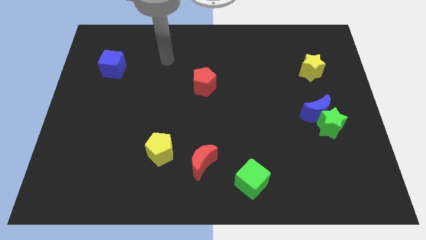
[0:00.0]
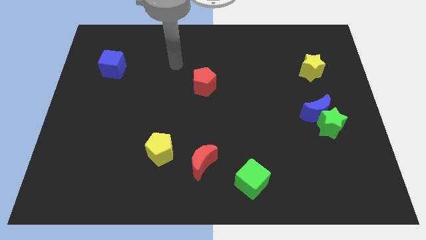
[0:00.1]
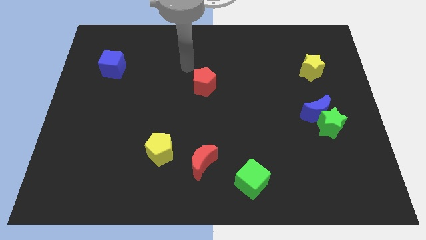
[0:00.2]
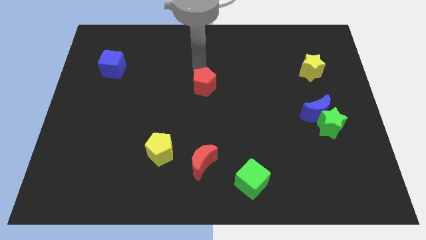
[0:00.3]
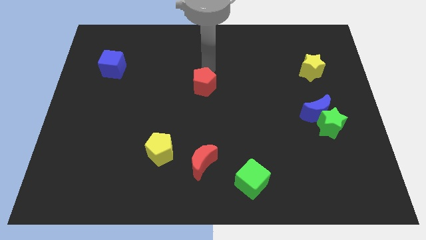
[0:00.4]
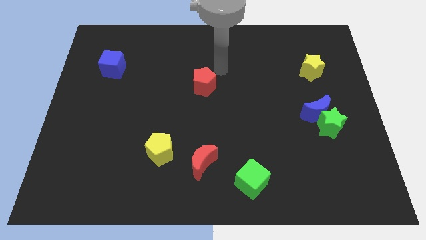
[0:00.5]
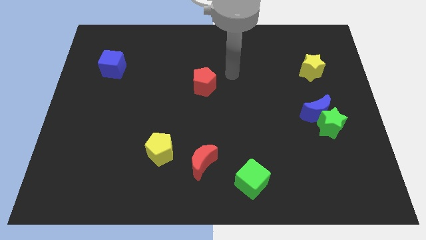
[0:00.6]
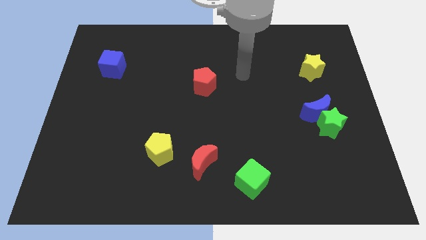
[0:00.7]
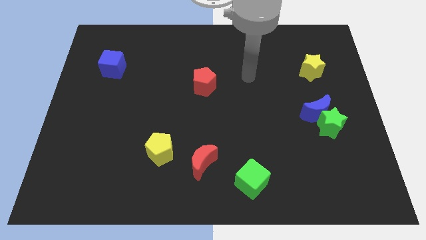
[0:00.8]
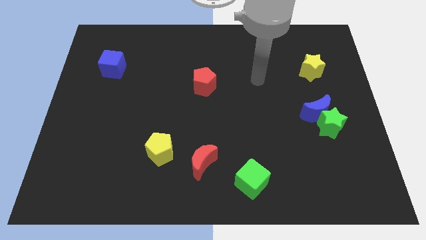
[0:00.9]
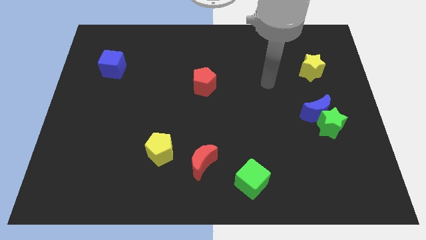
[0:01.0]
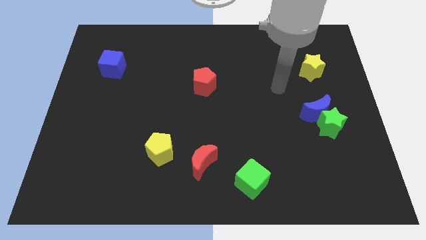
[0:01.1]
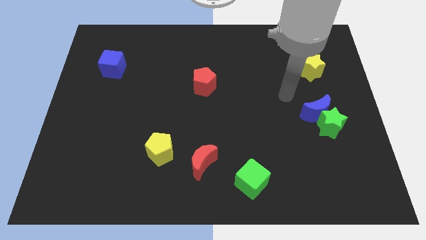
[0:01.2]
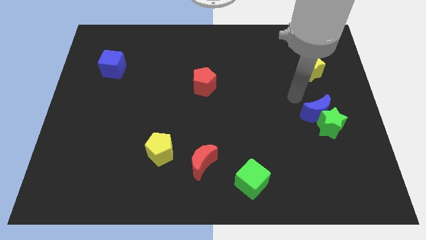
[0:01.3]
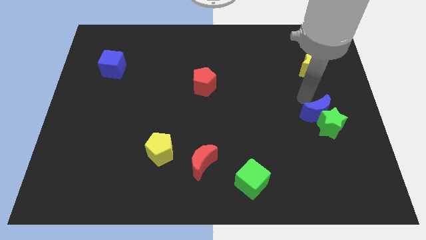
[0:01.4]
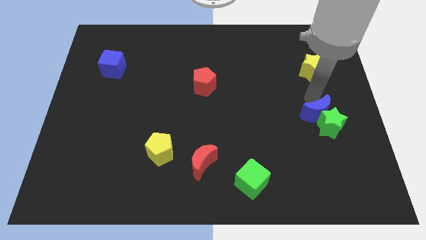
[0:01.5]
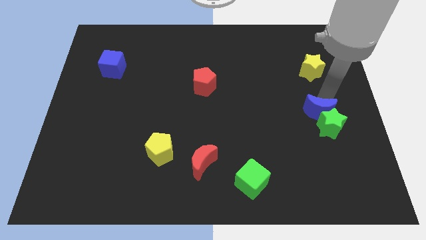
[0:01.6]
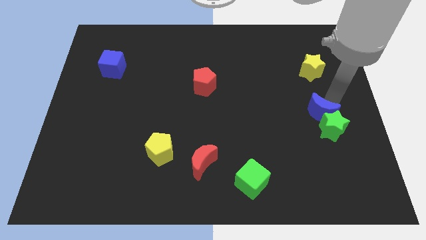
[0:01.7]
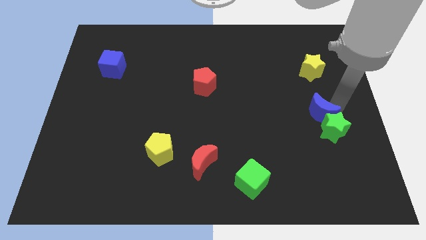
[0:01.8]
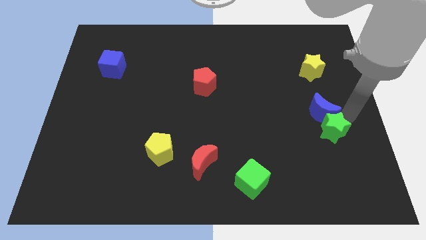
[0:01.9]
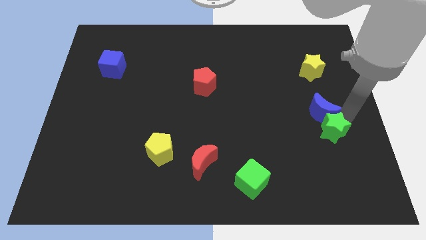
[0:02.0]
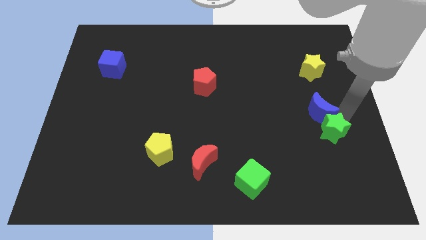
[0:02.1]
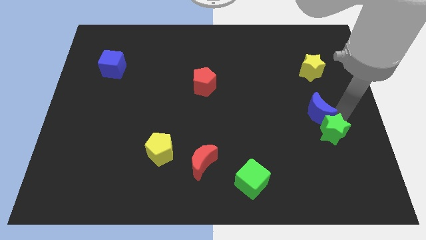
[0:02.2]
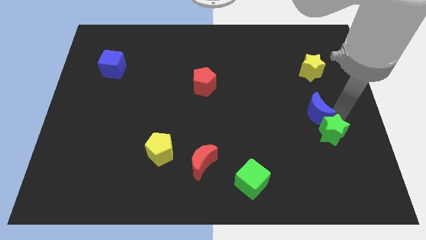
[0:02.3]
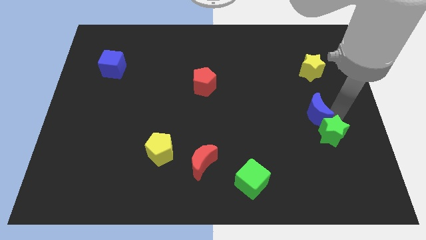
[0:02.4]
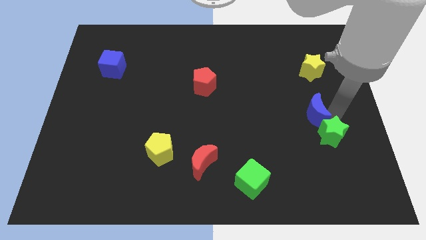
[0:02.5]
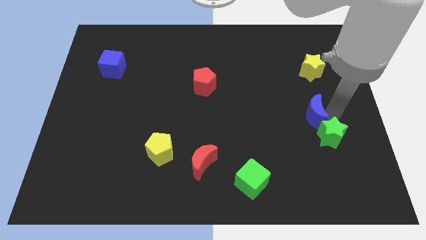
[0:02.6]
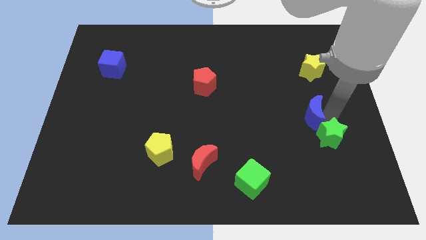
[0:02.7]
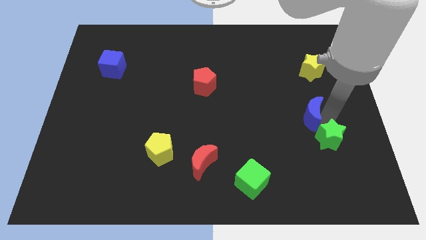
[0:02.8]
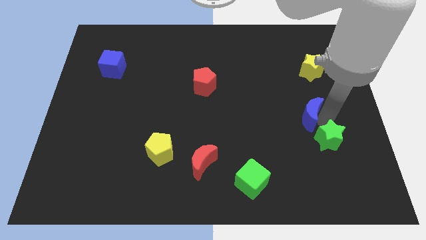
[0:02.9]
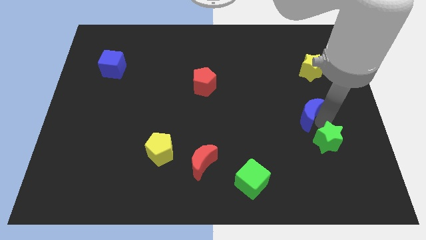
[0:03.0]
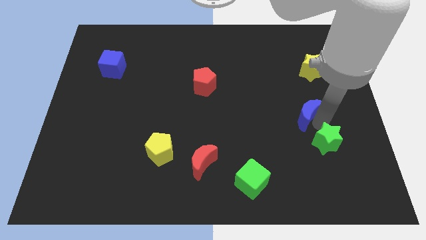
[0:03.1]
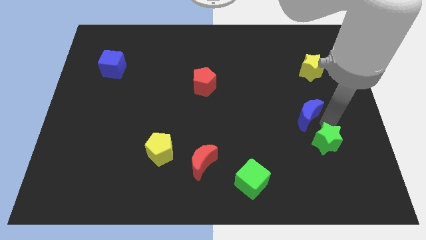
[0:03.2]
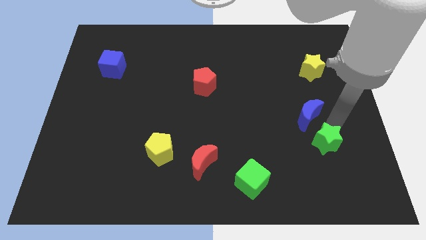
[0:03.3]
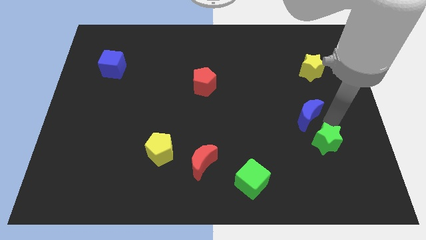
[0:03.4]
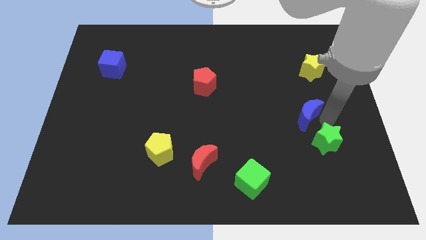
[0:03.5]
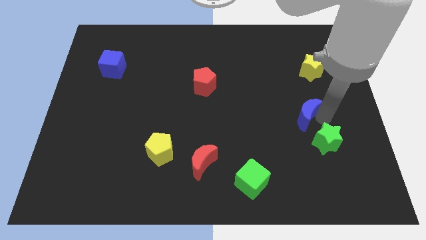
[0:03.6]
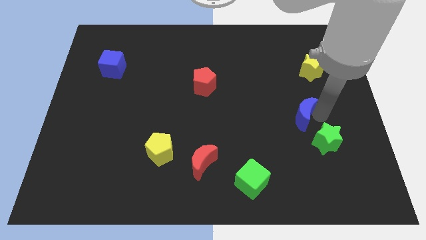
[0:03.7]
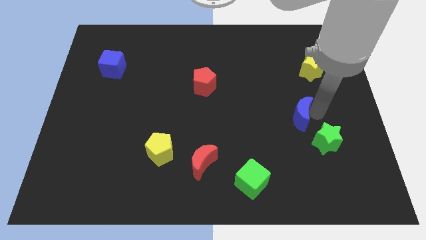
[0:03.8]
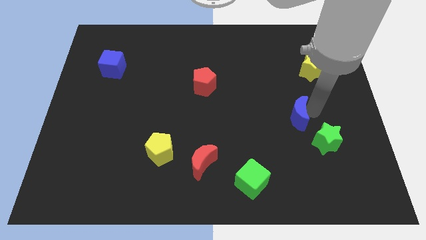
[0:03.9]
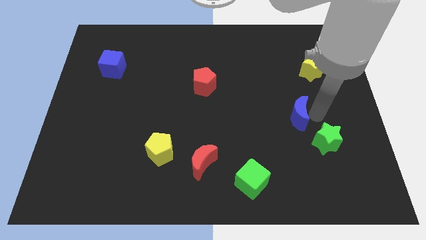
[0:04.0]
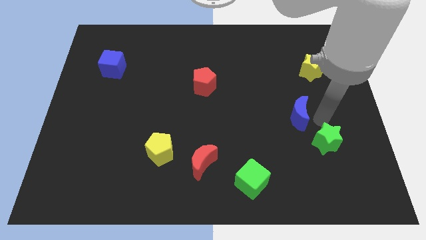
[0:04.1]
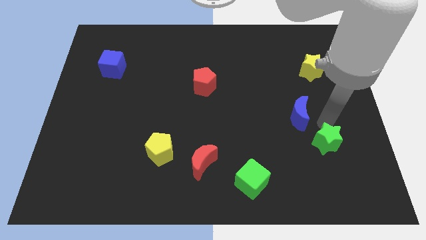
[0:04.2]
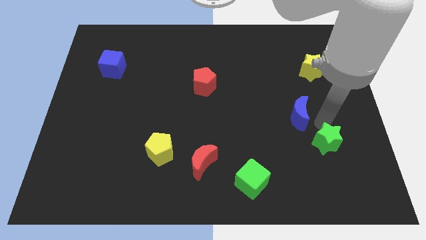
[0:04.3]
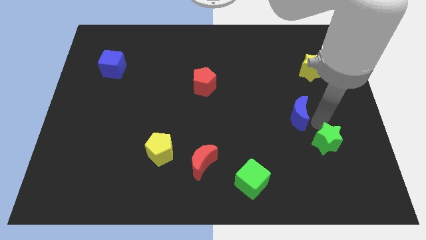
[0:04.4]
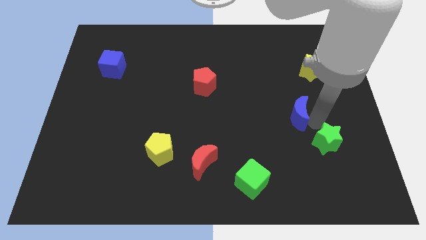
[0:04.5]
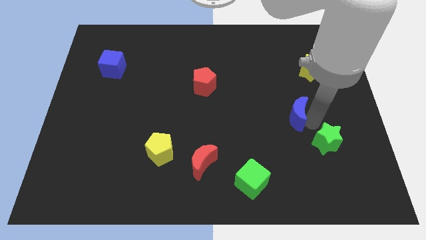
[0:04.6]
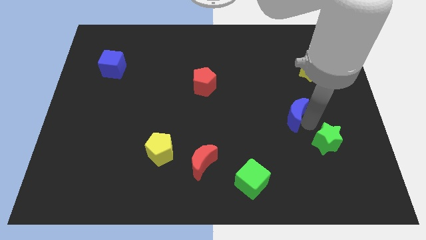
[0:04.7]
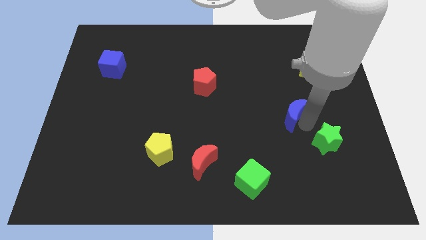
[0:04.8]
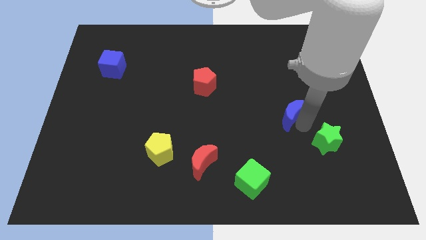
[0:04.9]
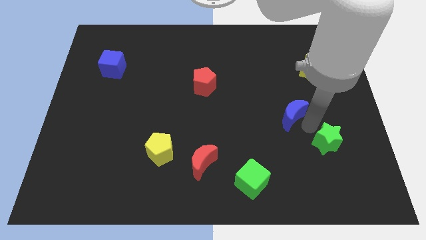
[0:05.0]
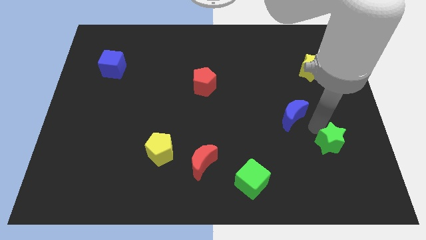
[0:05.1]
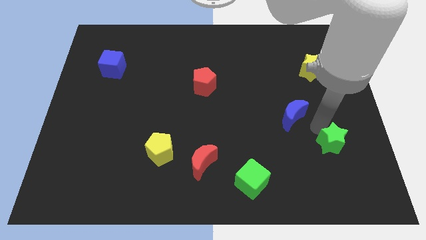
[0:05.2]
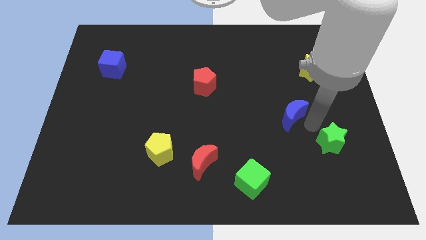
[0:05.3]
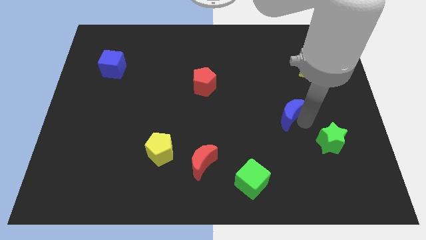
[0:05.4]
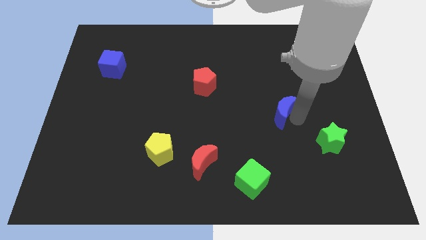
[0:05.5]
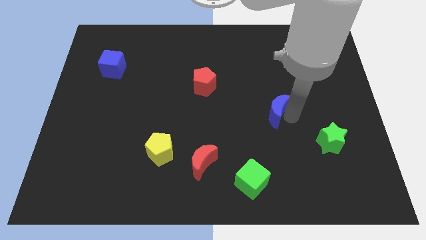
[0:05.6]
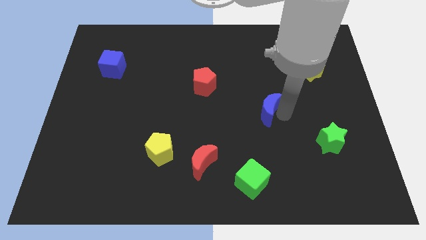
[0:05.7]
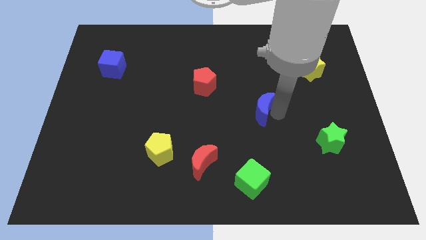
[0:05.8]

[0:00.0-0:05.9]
move the blue moon to the center
